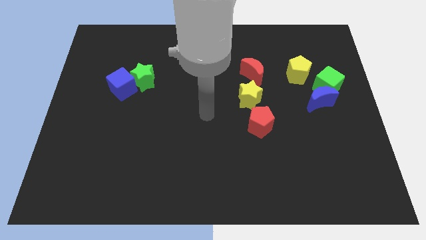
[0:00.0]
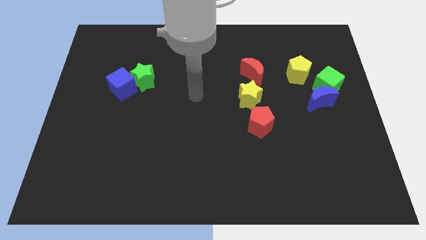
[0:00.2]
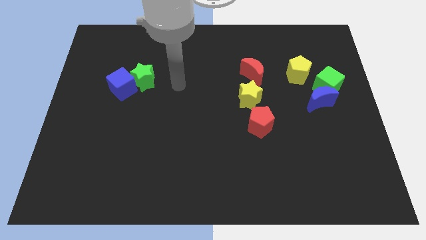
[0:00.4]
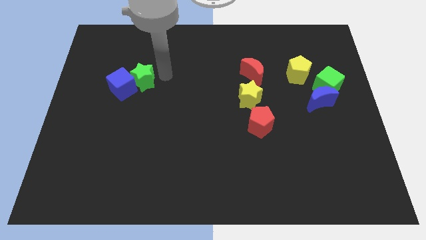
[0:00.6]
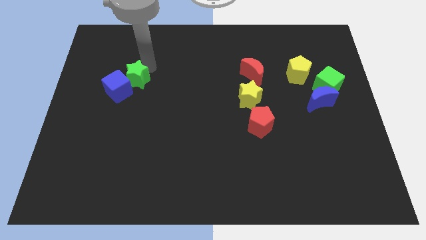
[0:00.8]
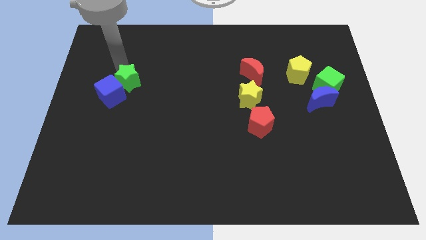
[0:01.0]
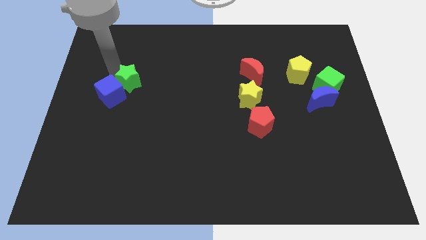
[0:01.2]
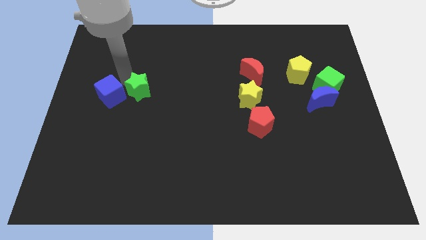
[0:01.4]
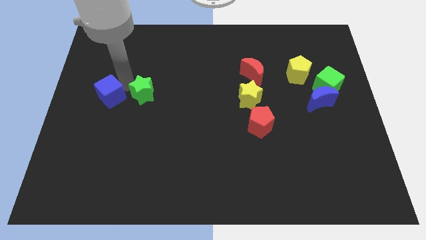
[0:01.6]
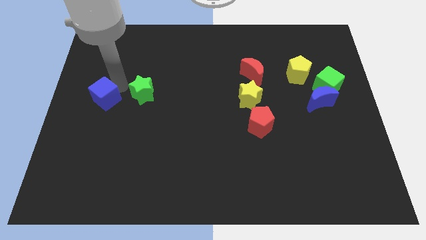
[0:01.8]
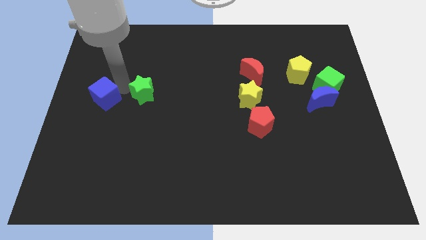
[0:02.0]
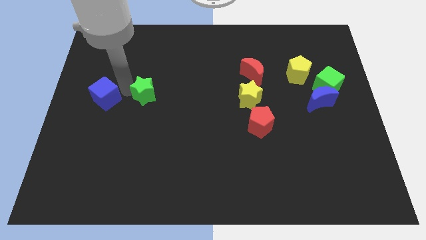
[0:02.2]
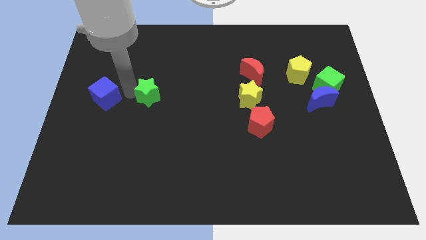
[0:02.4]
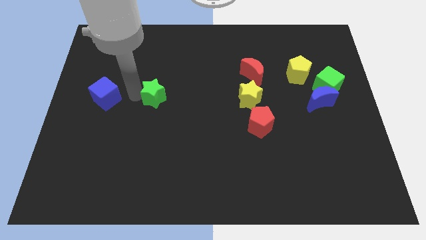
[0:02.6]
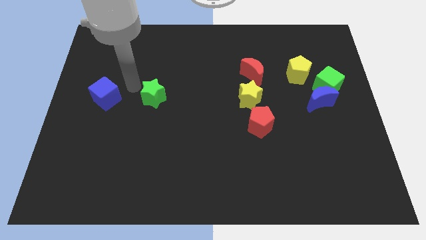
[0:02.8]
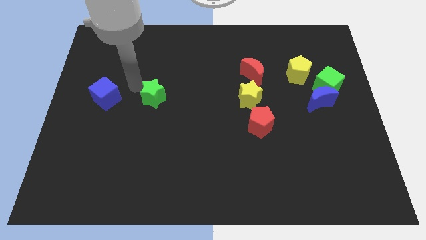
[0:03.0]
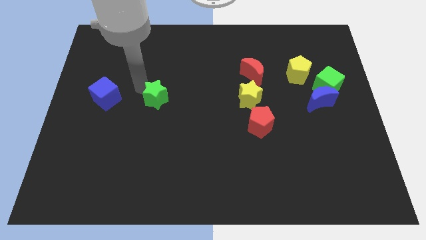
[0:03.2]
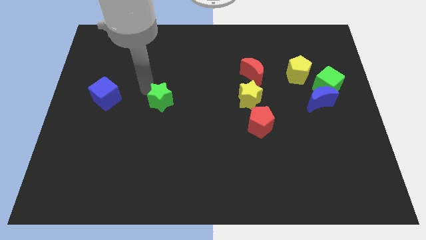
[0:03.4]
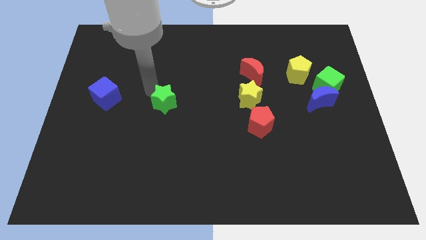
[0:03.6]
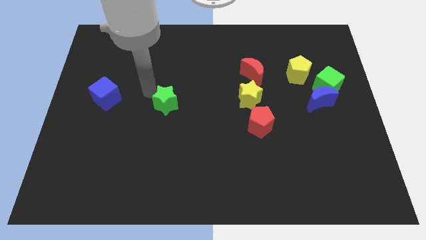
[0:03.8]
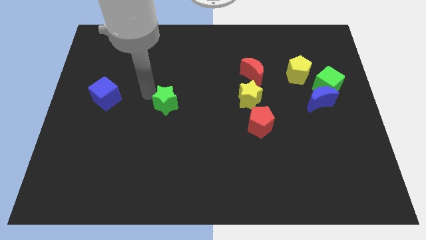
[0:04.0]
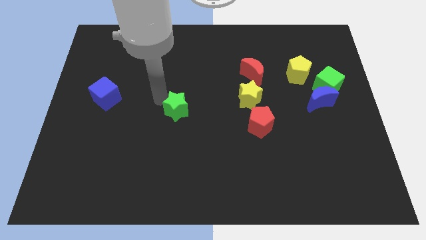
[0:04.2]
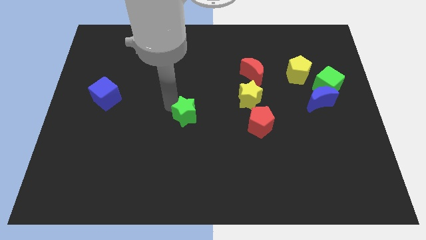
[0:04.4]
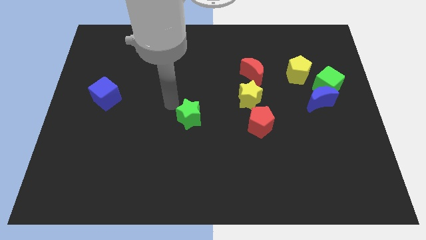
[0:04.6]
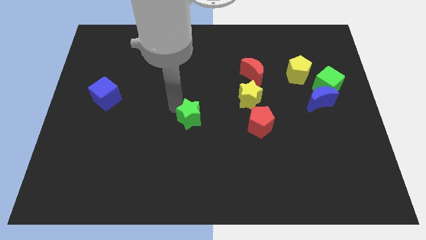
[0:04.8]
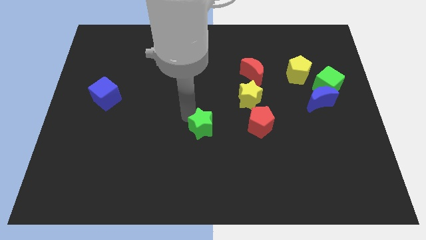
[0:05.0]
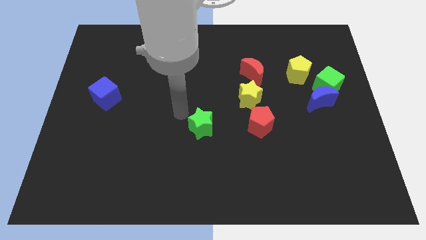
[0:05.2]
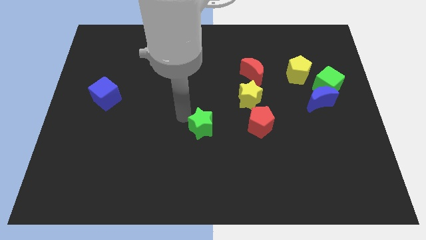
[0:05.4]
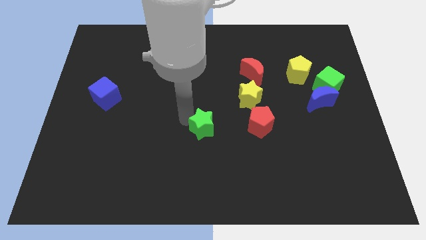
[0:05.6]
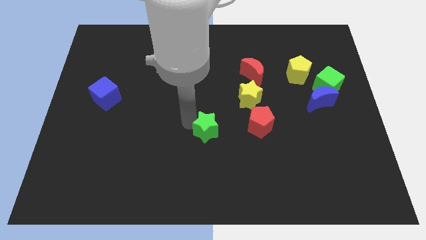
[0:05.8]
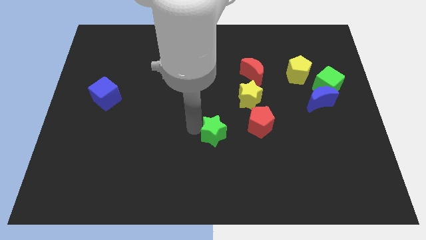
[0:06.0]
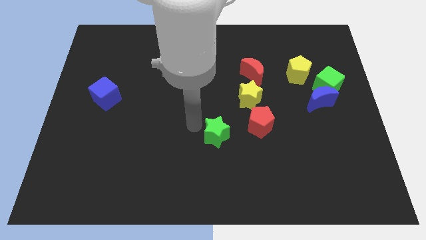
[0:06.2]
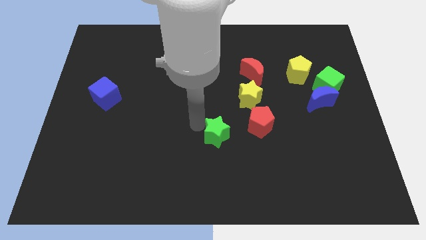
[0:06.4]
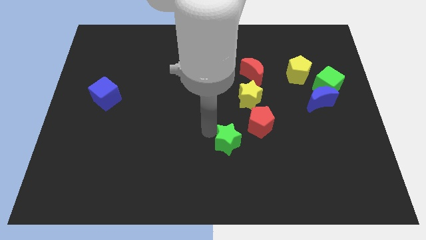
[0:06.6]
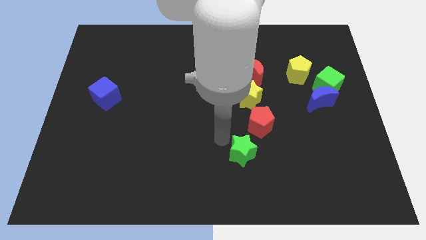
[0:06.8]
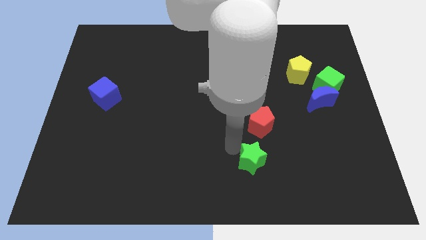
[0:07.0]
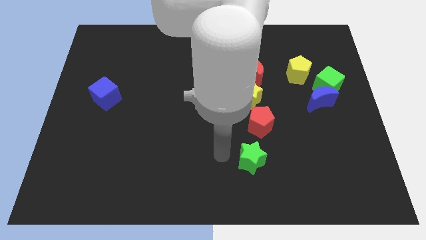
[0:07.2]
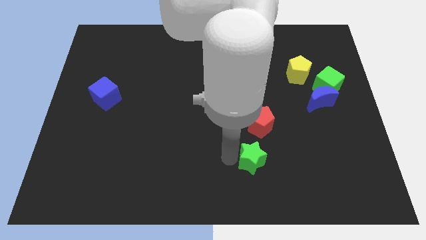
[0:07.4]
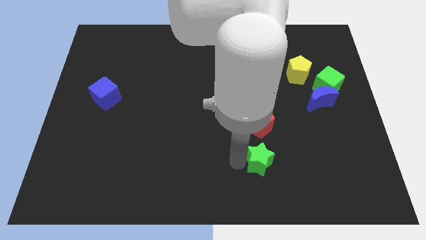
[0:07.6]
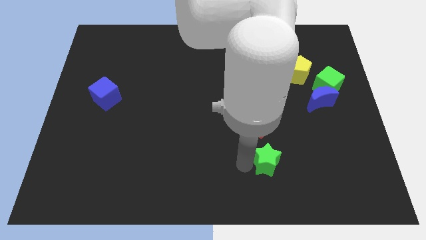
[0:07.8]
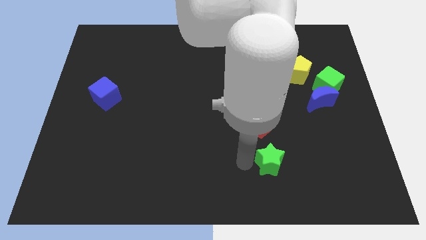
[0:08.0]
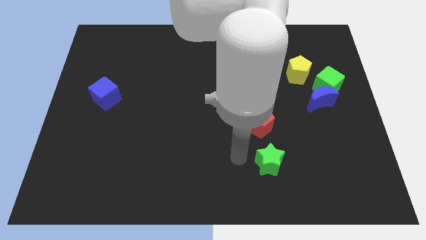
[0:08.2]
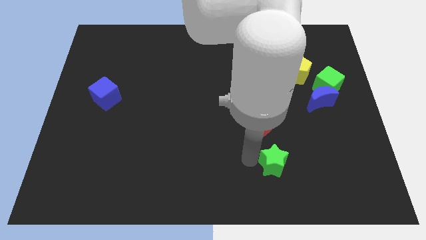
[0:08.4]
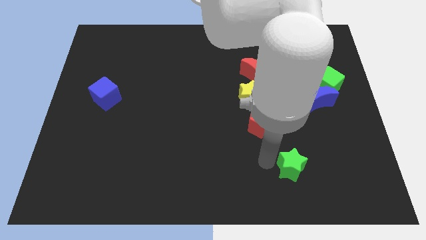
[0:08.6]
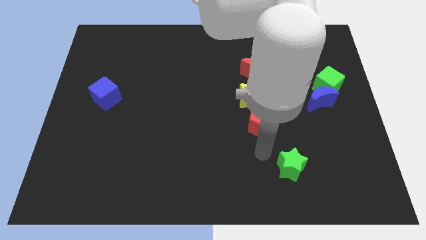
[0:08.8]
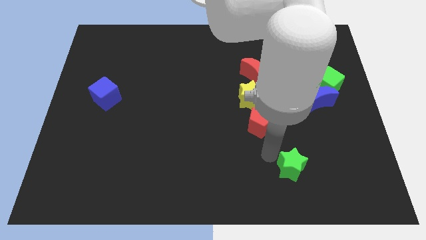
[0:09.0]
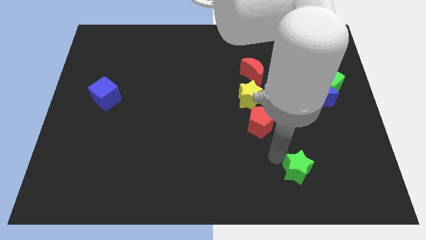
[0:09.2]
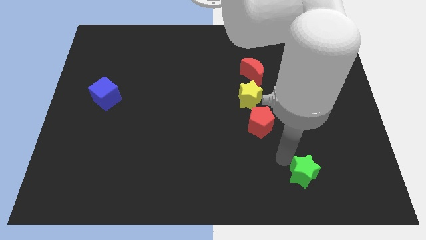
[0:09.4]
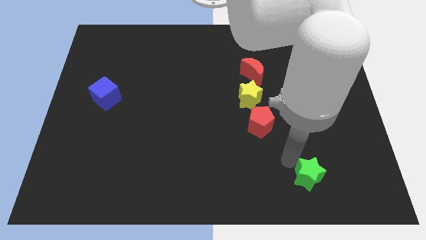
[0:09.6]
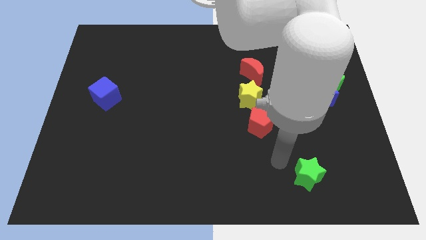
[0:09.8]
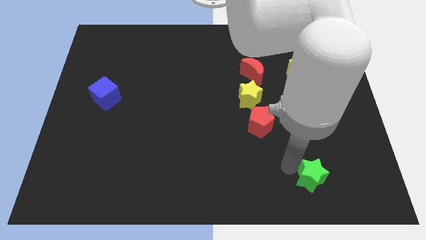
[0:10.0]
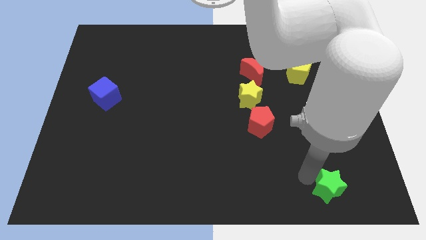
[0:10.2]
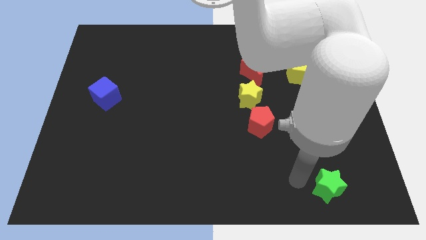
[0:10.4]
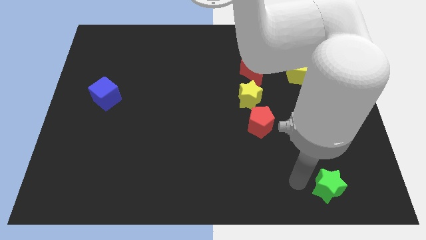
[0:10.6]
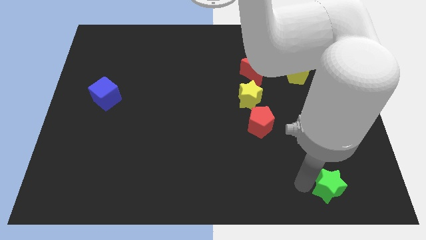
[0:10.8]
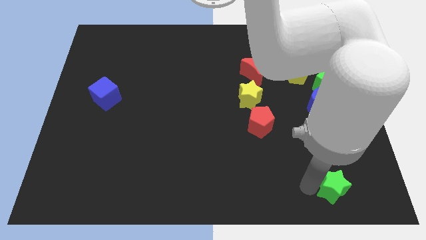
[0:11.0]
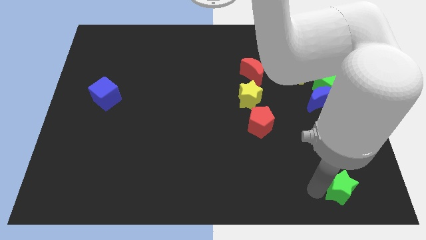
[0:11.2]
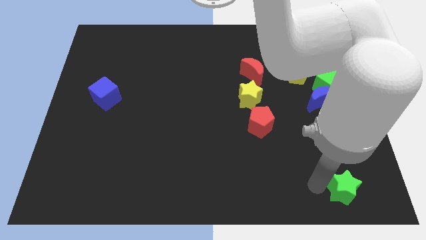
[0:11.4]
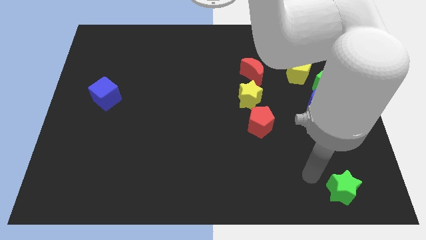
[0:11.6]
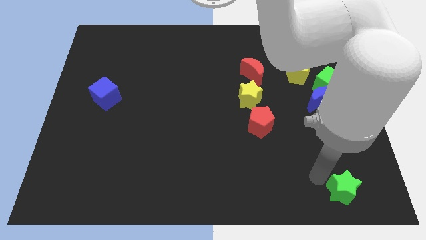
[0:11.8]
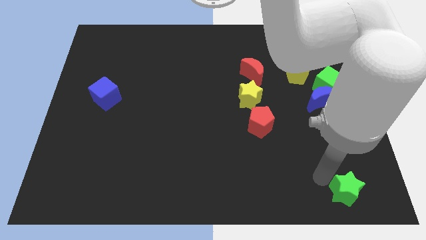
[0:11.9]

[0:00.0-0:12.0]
move the green star to the bottom right of the board
